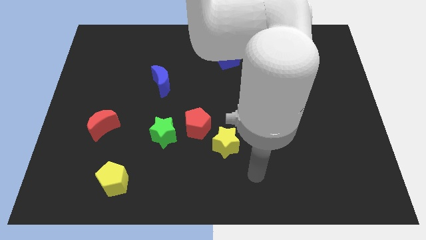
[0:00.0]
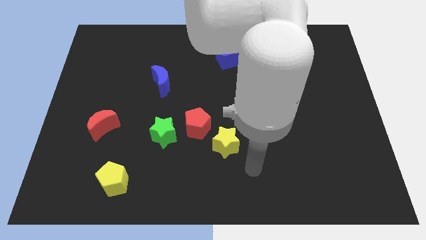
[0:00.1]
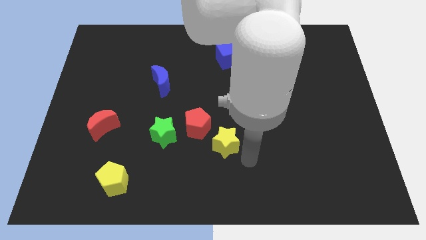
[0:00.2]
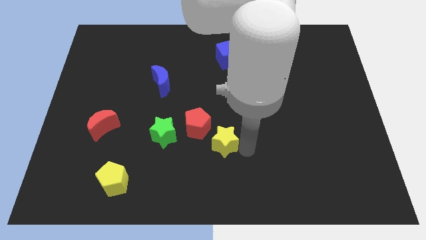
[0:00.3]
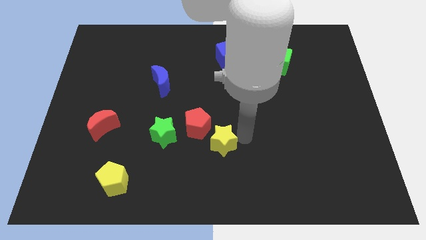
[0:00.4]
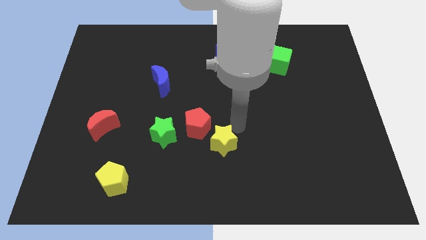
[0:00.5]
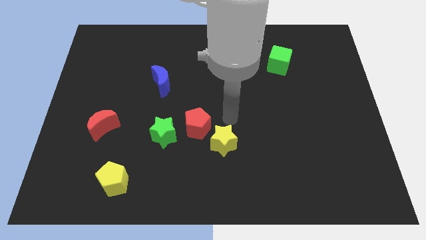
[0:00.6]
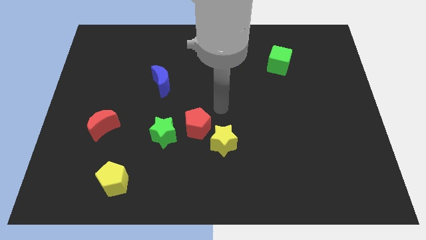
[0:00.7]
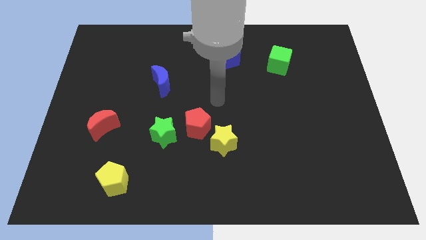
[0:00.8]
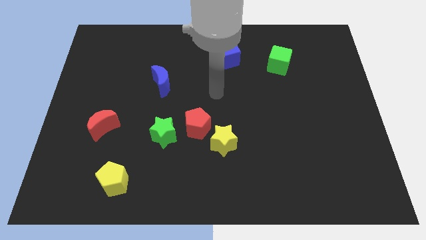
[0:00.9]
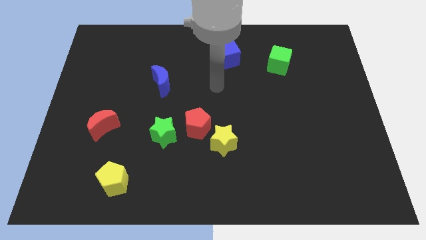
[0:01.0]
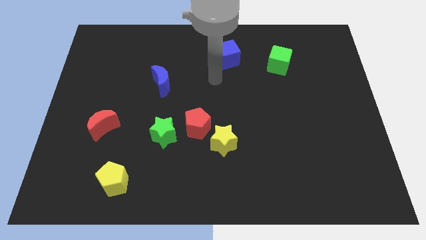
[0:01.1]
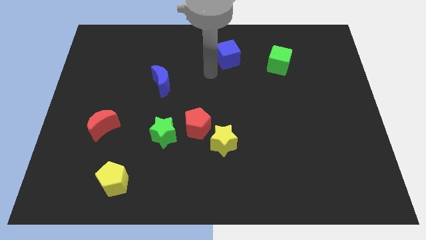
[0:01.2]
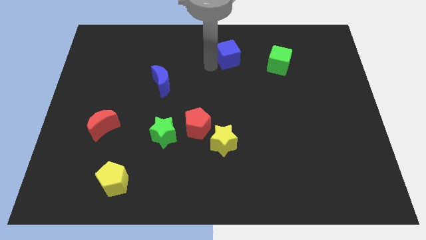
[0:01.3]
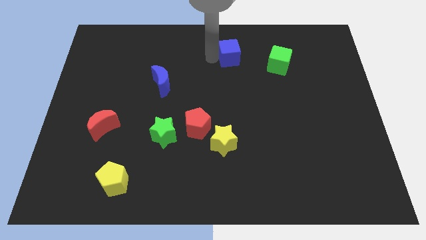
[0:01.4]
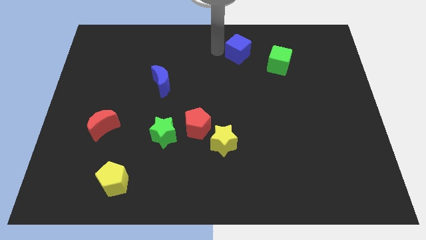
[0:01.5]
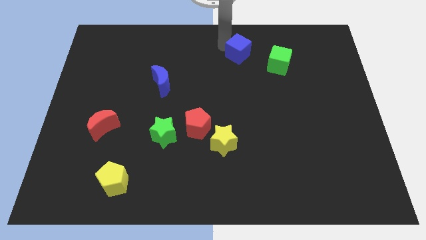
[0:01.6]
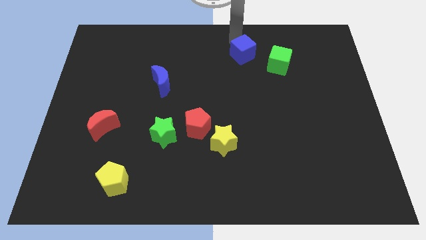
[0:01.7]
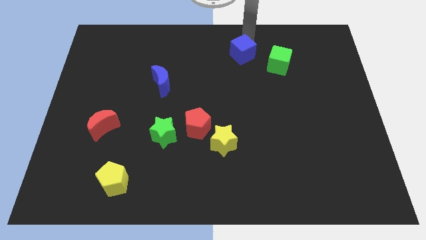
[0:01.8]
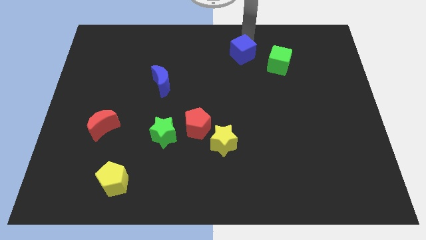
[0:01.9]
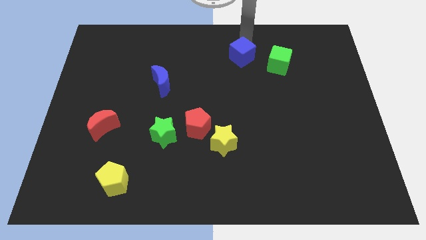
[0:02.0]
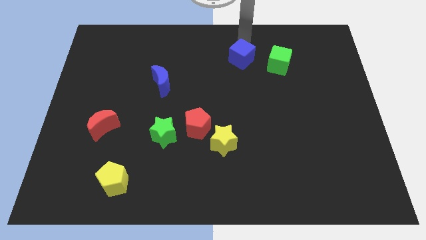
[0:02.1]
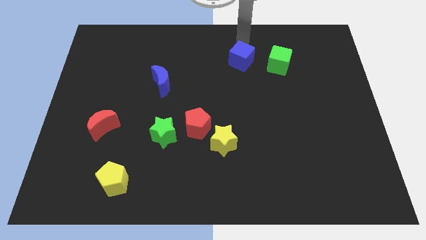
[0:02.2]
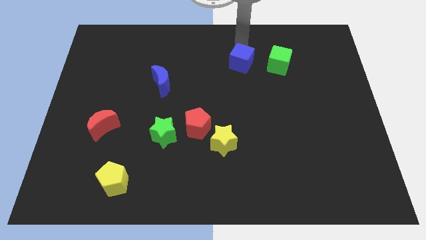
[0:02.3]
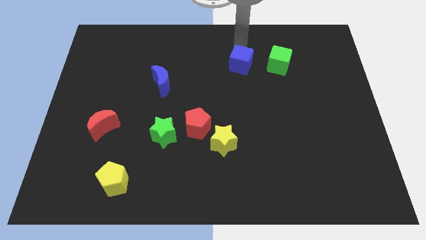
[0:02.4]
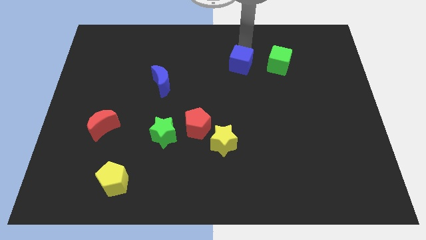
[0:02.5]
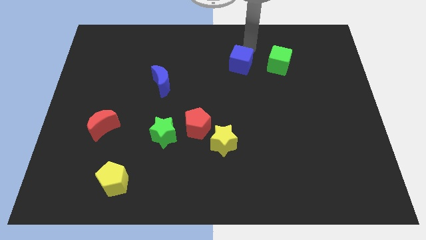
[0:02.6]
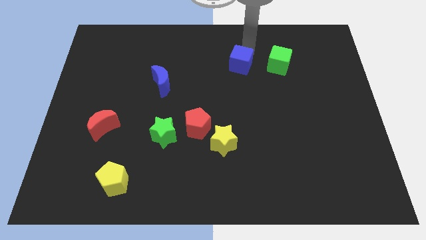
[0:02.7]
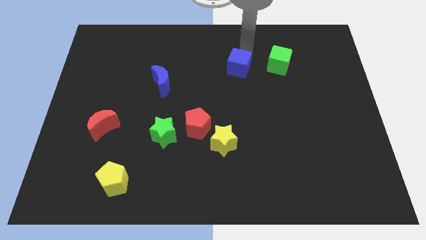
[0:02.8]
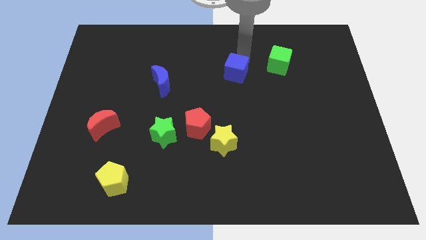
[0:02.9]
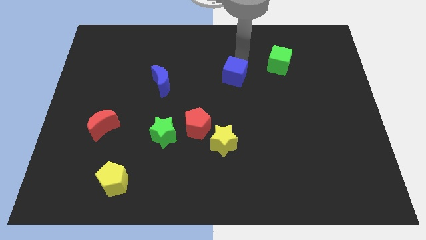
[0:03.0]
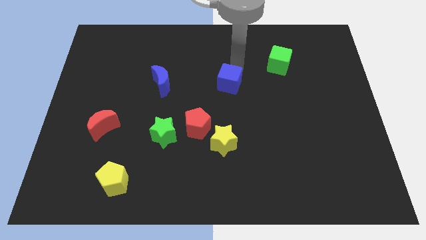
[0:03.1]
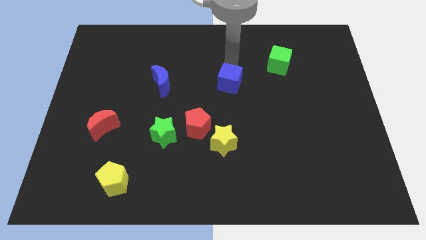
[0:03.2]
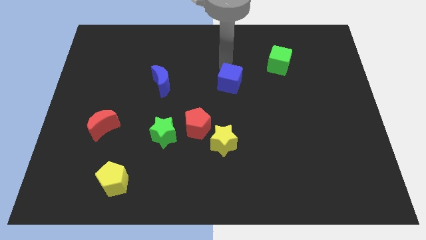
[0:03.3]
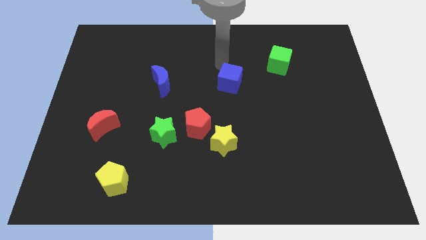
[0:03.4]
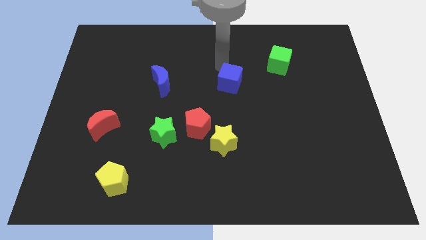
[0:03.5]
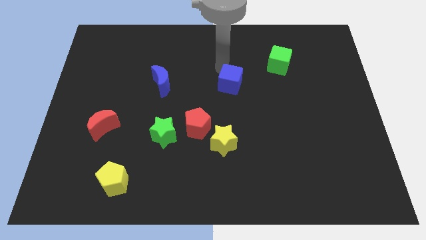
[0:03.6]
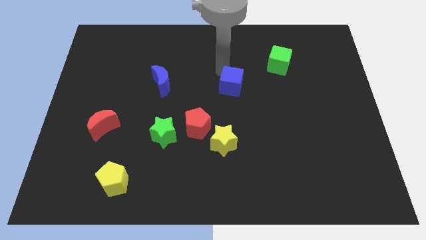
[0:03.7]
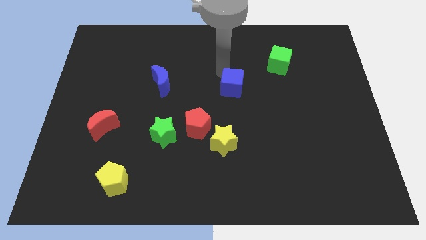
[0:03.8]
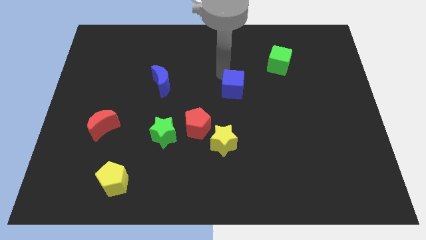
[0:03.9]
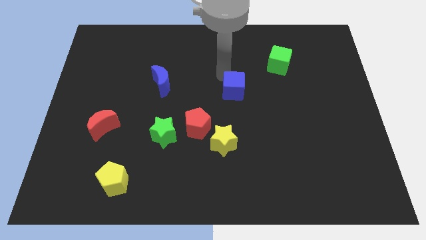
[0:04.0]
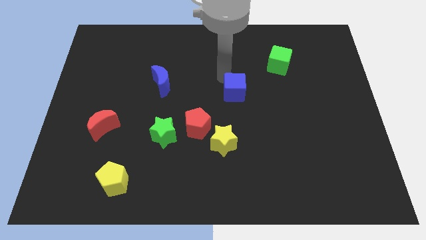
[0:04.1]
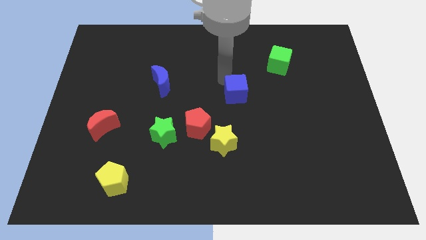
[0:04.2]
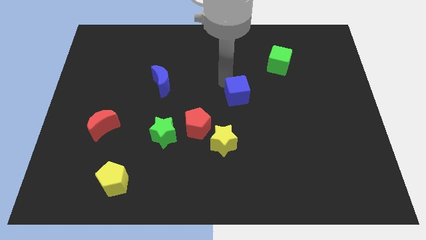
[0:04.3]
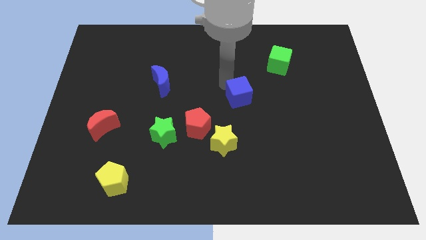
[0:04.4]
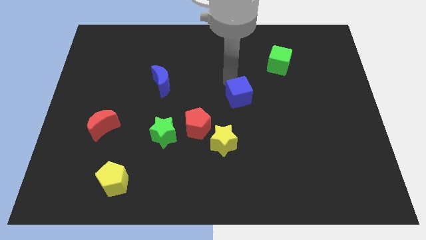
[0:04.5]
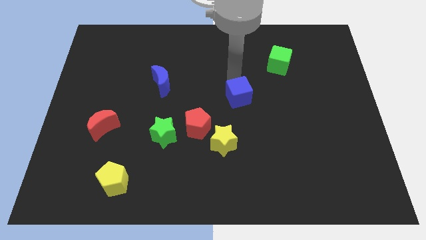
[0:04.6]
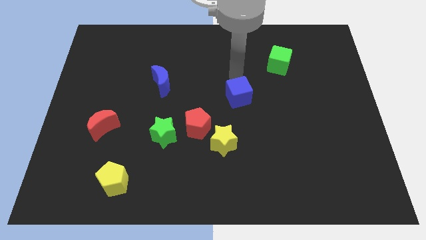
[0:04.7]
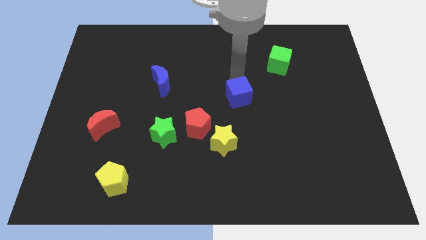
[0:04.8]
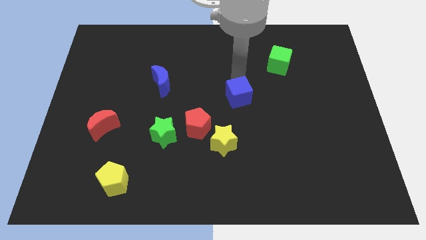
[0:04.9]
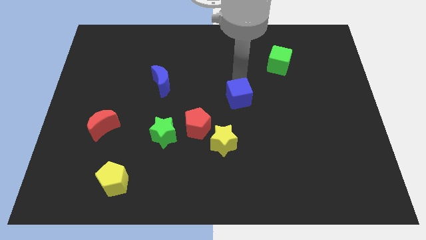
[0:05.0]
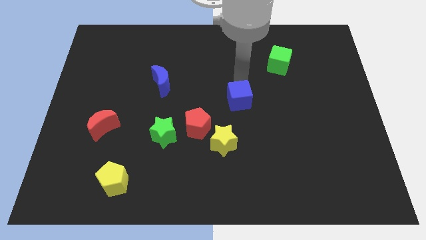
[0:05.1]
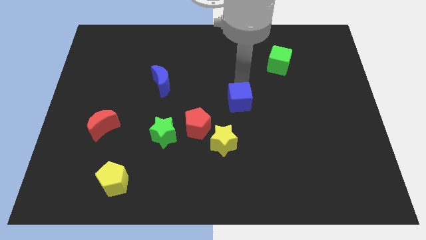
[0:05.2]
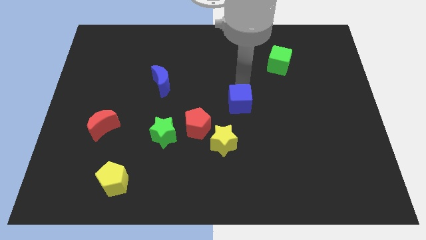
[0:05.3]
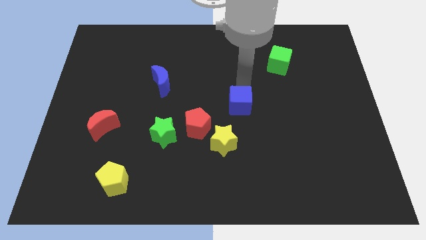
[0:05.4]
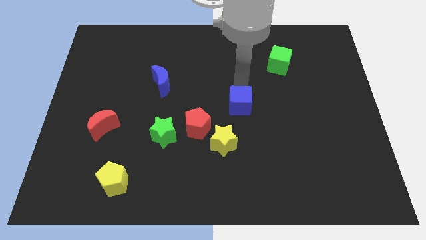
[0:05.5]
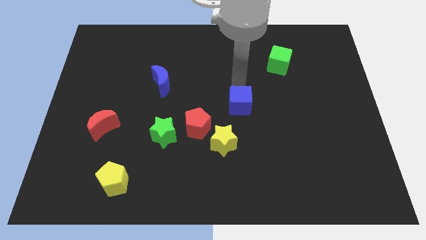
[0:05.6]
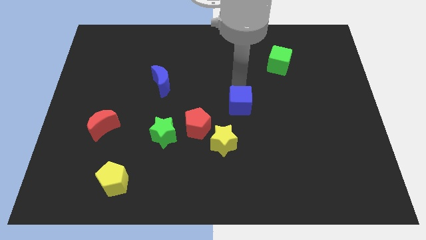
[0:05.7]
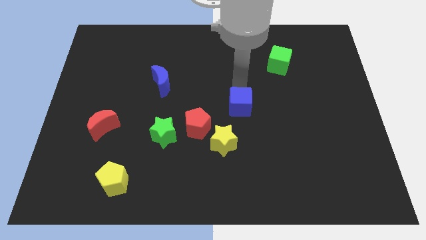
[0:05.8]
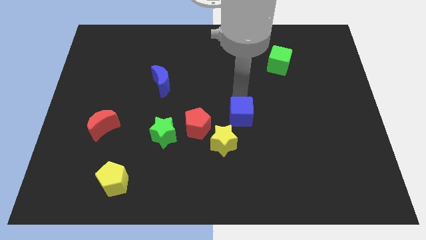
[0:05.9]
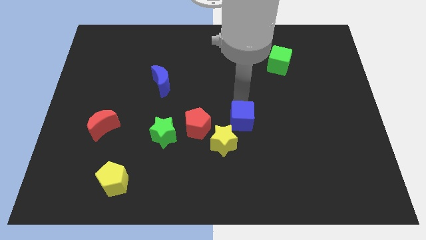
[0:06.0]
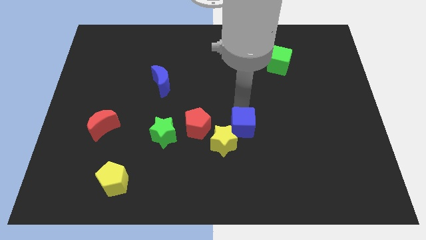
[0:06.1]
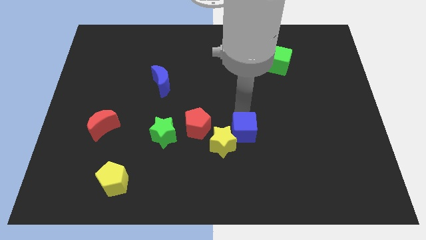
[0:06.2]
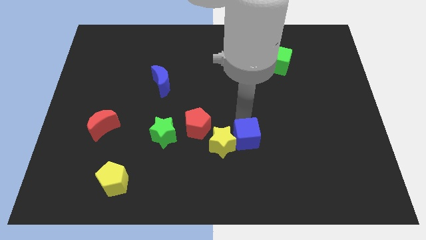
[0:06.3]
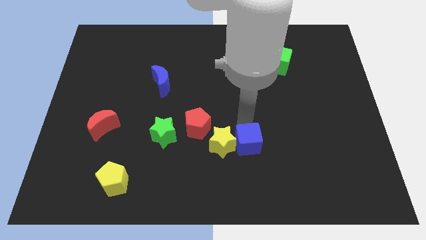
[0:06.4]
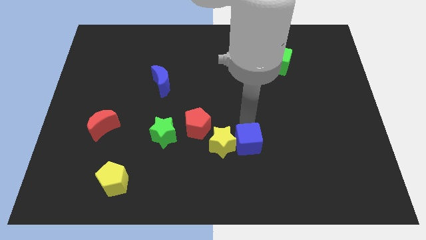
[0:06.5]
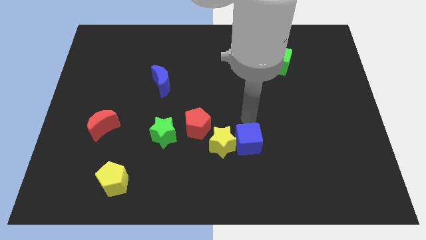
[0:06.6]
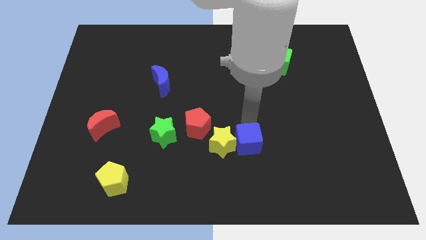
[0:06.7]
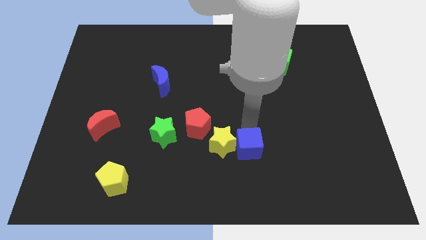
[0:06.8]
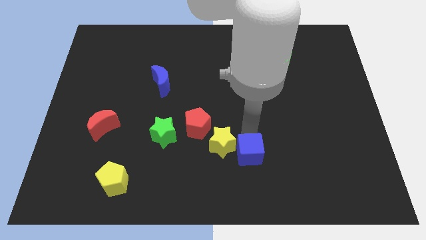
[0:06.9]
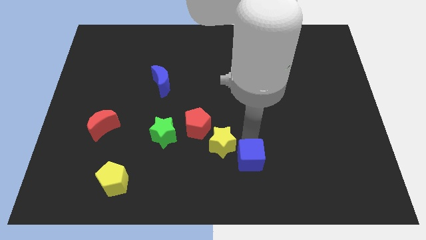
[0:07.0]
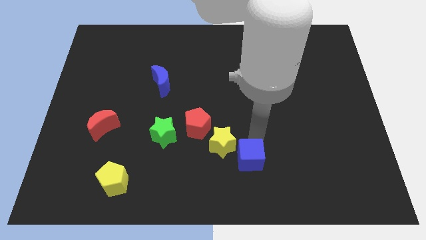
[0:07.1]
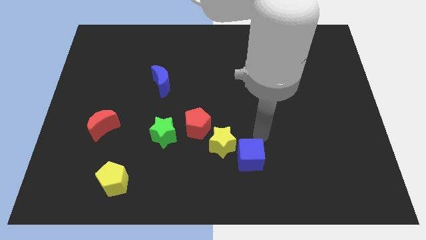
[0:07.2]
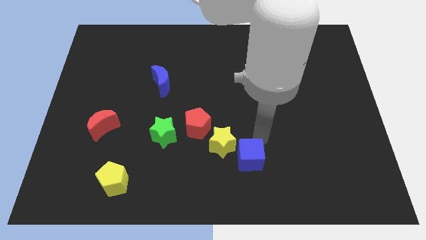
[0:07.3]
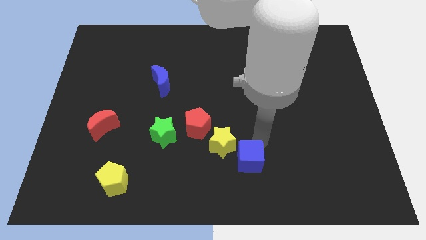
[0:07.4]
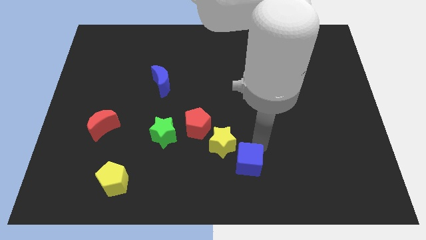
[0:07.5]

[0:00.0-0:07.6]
move the blue cube to the bottom
